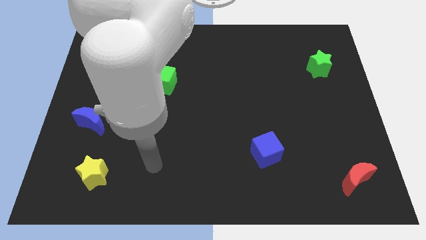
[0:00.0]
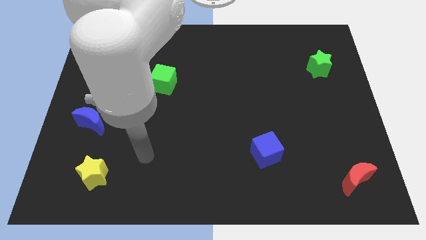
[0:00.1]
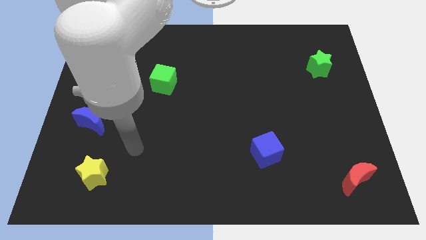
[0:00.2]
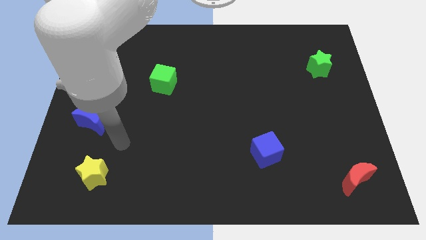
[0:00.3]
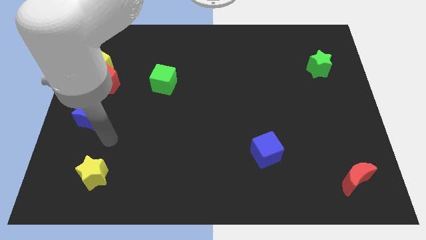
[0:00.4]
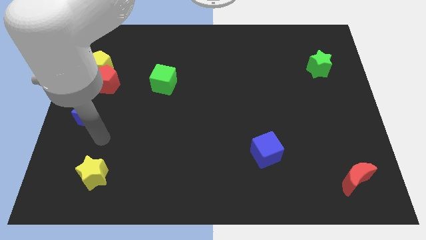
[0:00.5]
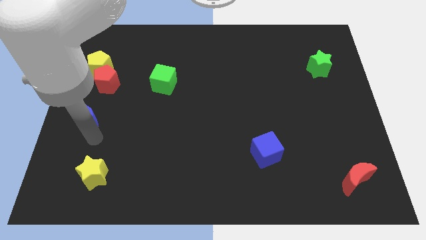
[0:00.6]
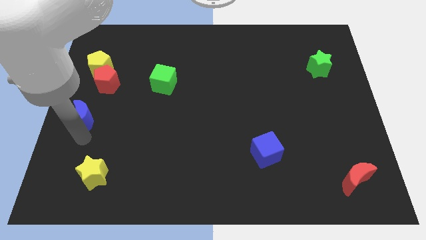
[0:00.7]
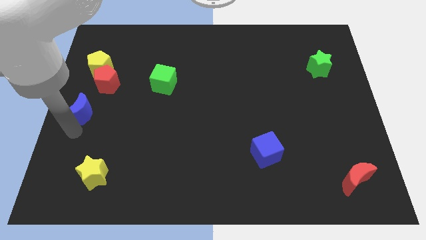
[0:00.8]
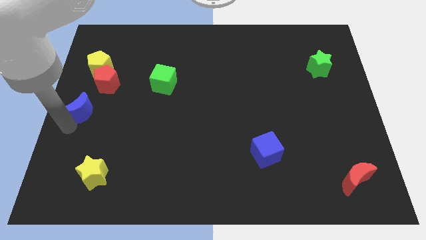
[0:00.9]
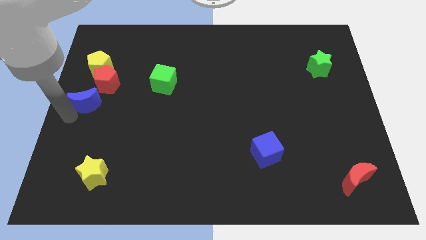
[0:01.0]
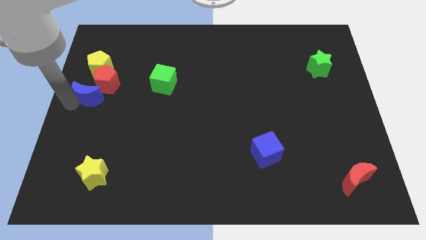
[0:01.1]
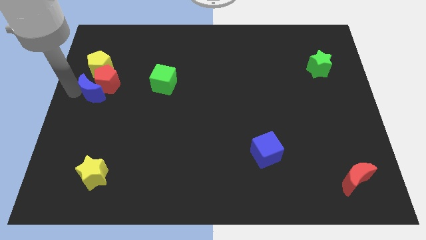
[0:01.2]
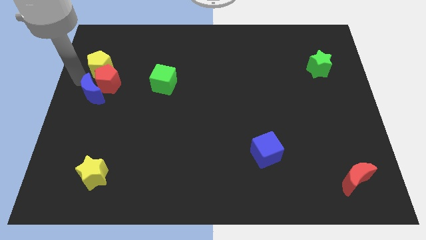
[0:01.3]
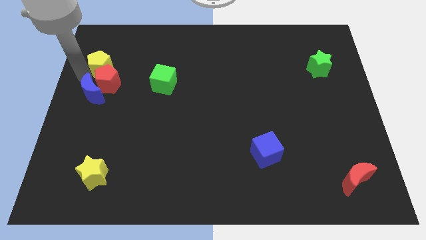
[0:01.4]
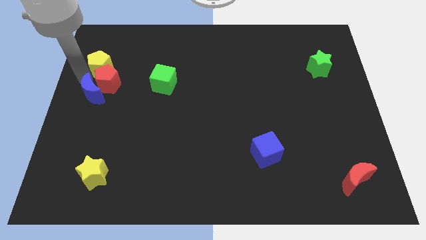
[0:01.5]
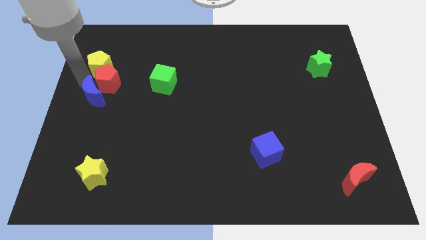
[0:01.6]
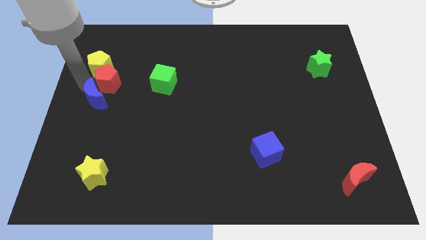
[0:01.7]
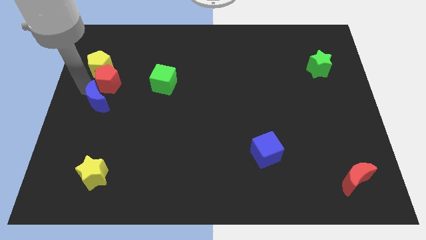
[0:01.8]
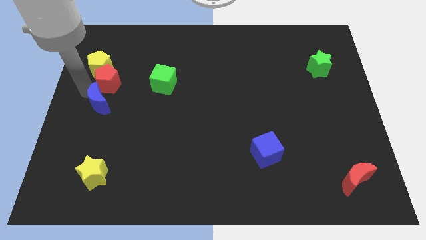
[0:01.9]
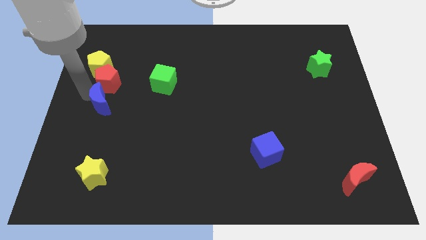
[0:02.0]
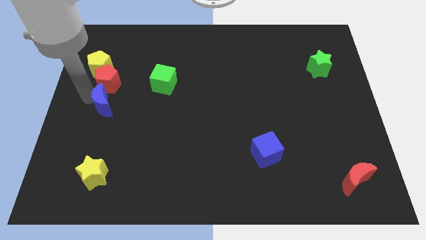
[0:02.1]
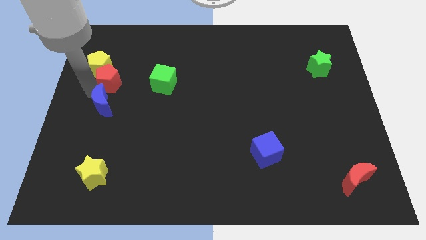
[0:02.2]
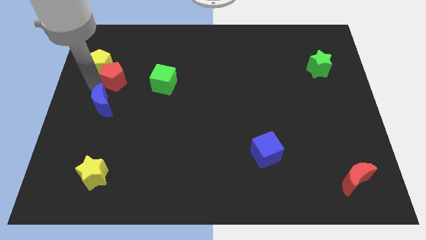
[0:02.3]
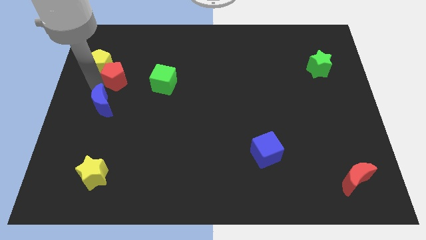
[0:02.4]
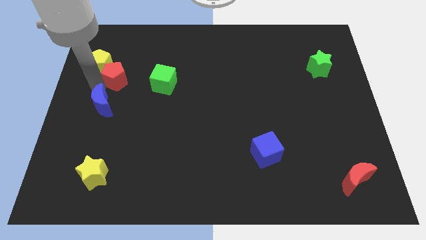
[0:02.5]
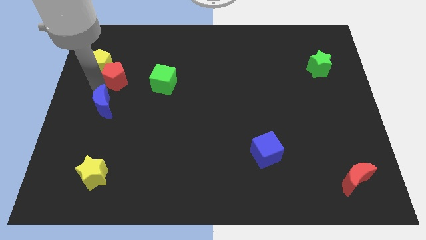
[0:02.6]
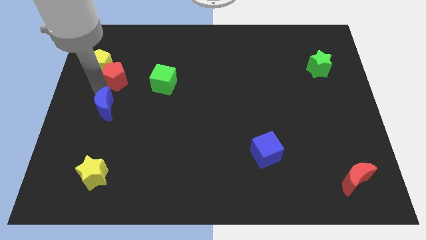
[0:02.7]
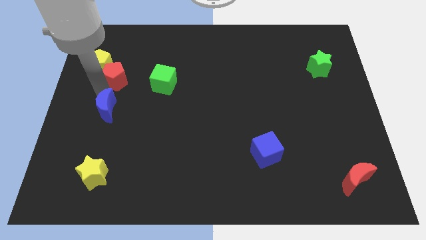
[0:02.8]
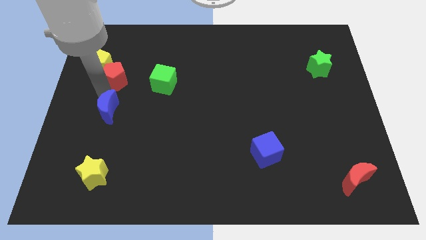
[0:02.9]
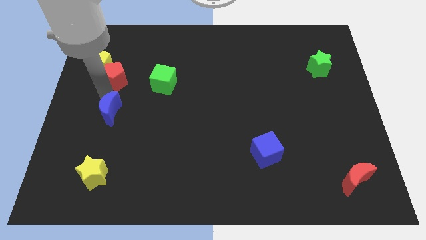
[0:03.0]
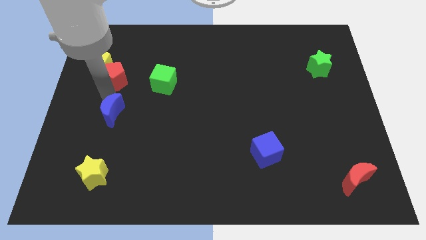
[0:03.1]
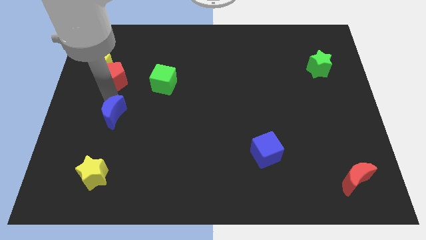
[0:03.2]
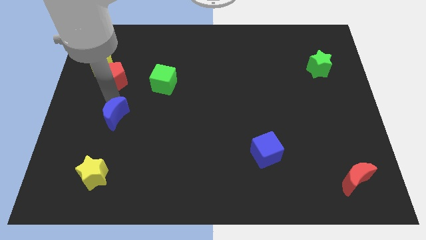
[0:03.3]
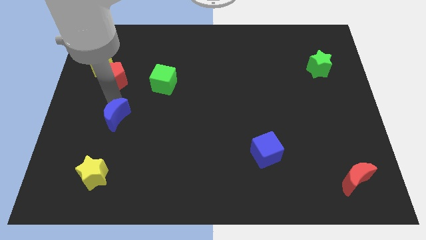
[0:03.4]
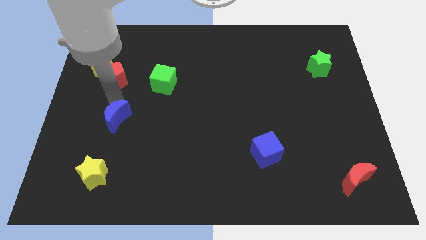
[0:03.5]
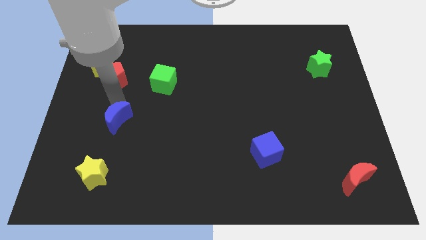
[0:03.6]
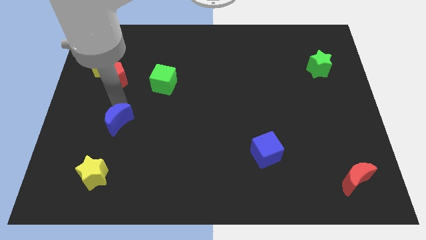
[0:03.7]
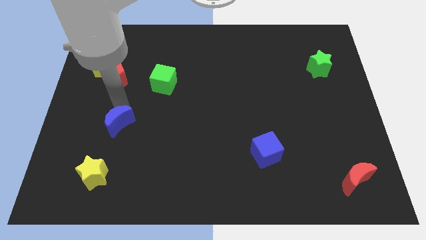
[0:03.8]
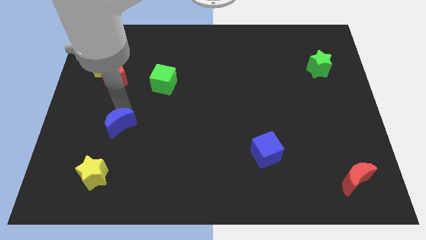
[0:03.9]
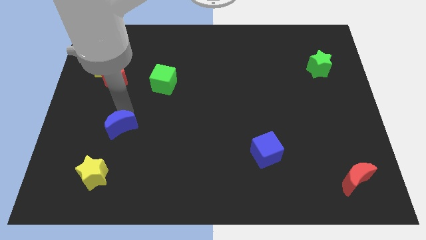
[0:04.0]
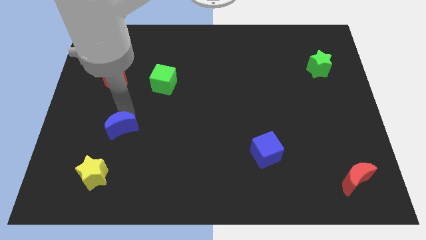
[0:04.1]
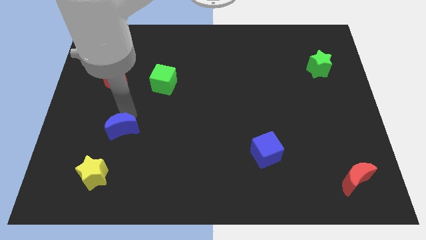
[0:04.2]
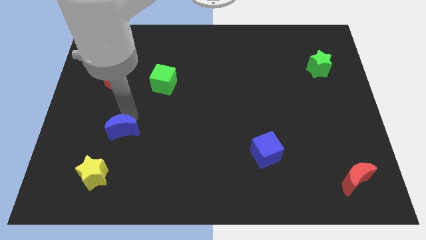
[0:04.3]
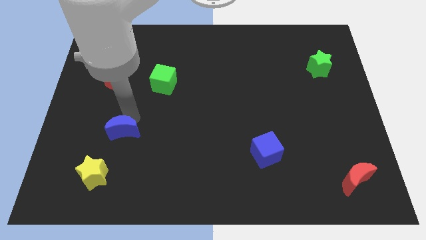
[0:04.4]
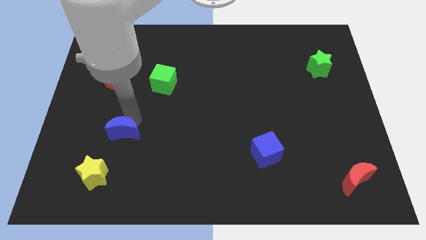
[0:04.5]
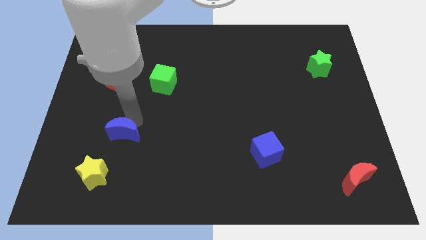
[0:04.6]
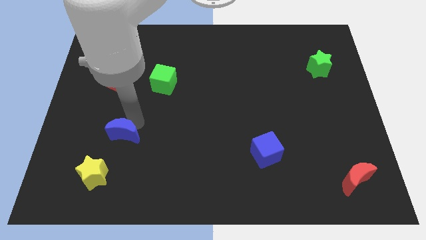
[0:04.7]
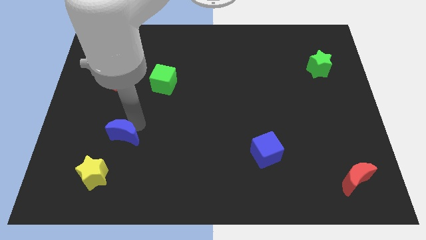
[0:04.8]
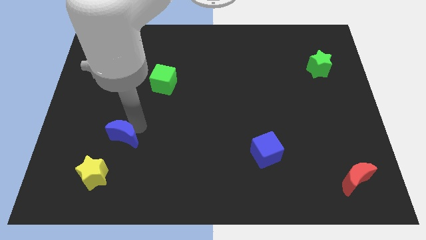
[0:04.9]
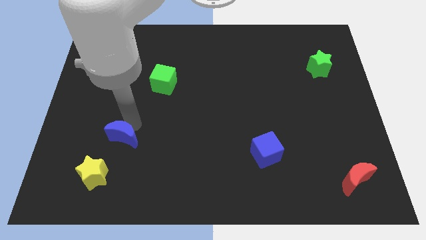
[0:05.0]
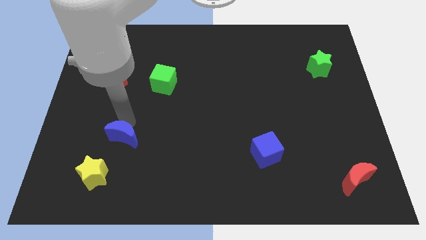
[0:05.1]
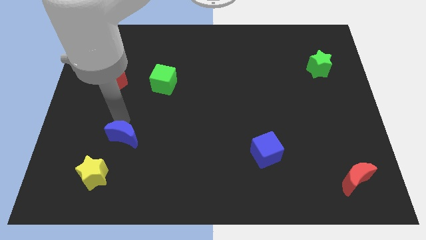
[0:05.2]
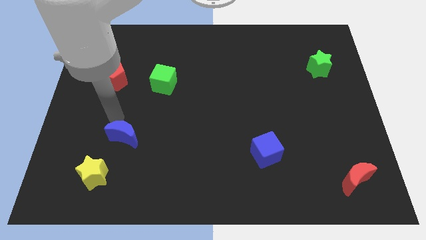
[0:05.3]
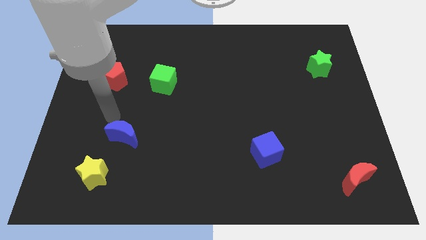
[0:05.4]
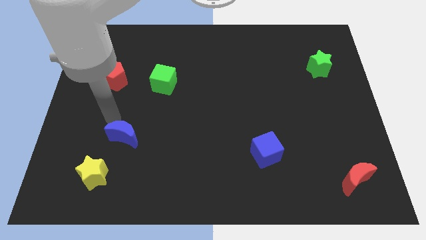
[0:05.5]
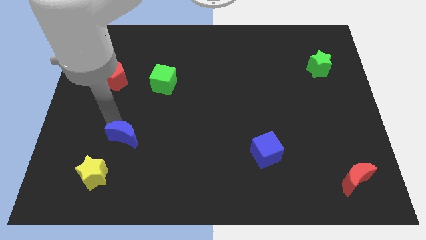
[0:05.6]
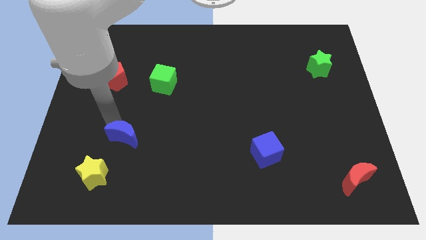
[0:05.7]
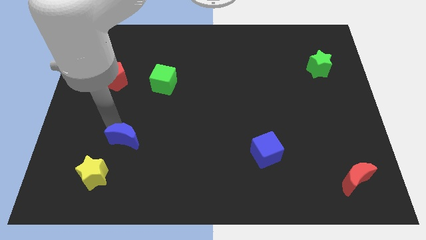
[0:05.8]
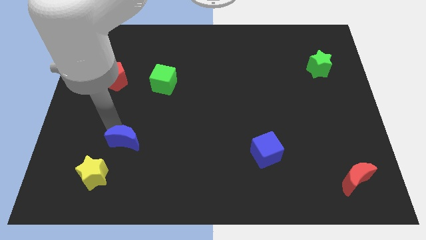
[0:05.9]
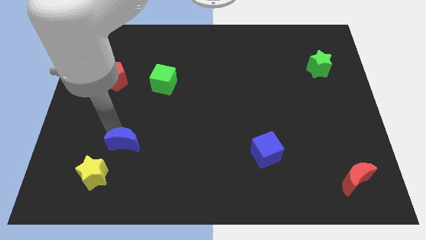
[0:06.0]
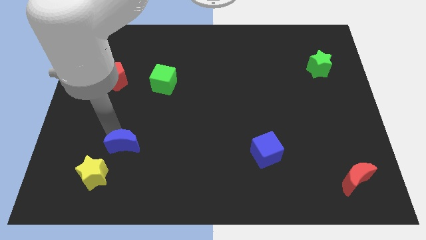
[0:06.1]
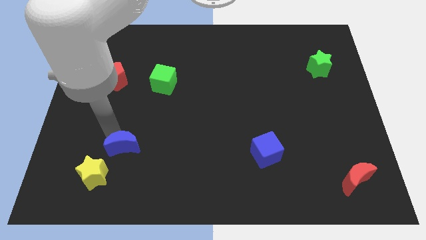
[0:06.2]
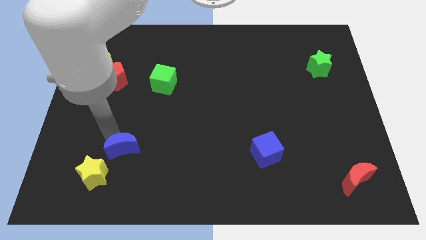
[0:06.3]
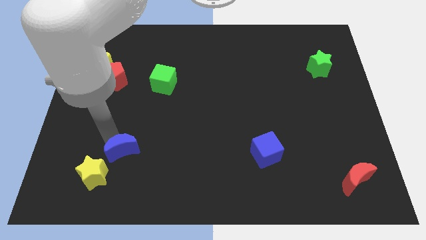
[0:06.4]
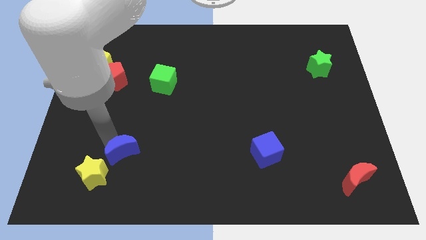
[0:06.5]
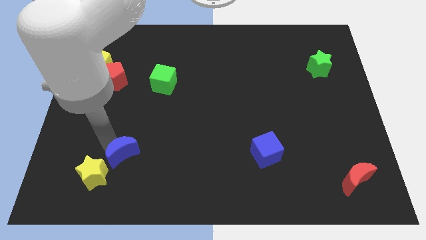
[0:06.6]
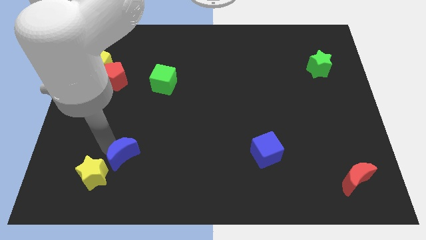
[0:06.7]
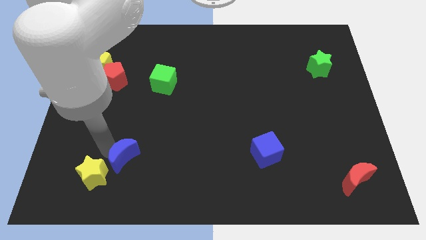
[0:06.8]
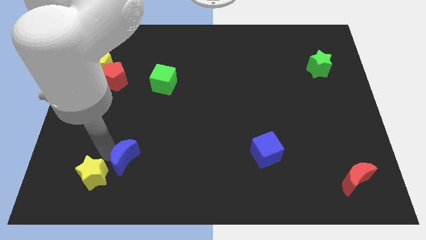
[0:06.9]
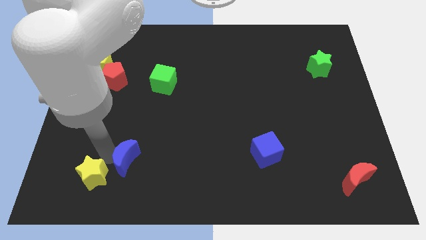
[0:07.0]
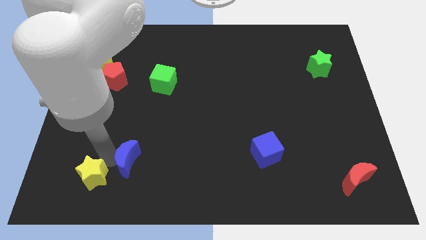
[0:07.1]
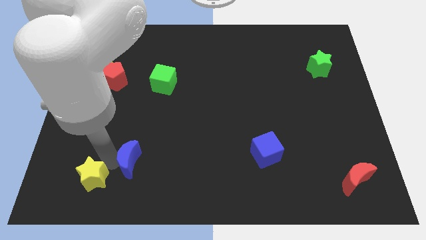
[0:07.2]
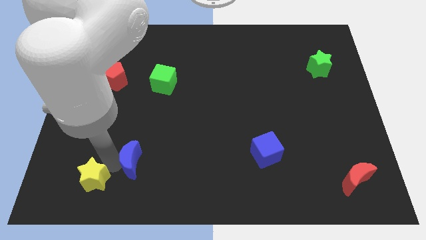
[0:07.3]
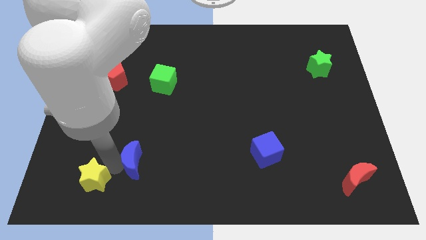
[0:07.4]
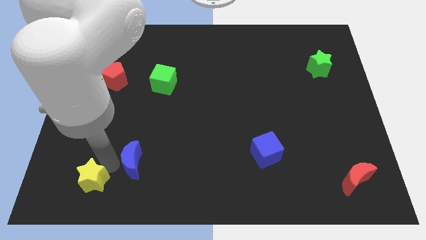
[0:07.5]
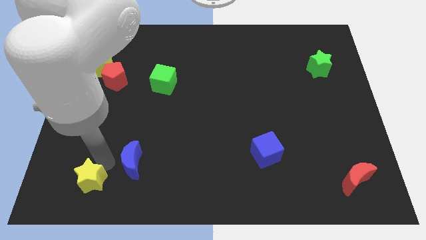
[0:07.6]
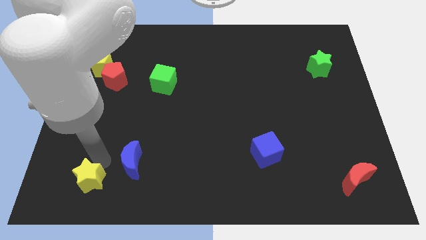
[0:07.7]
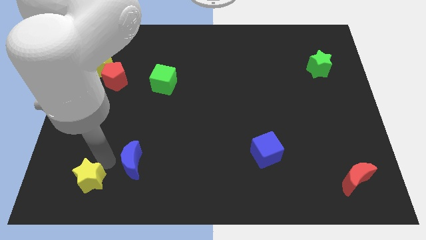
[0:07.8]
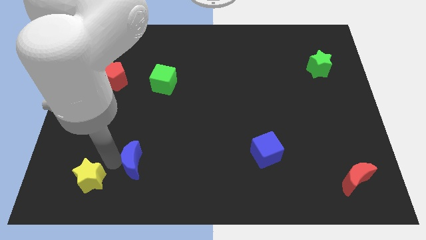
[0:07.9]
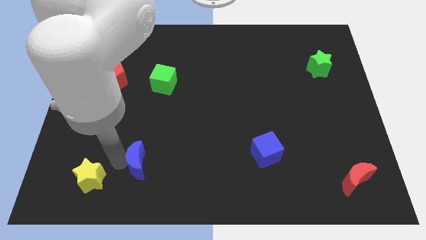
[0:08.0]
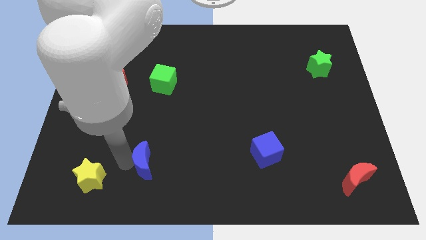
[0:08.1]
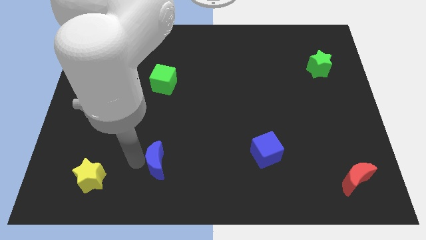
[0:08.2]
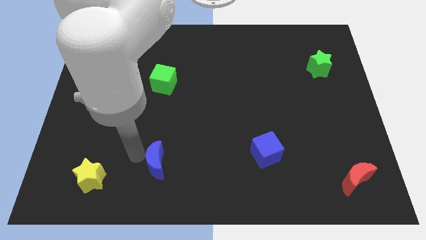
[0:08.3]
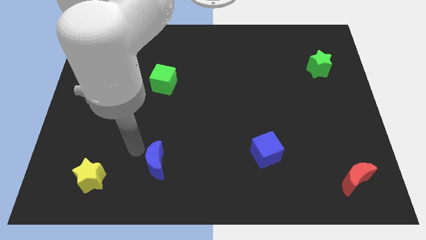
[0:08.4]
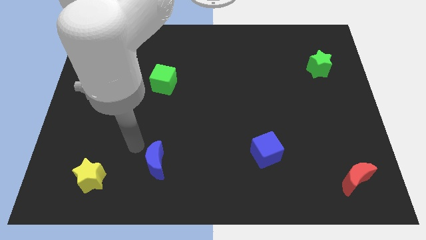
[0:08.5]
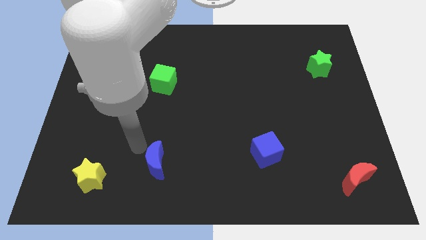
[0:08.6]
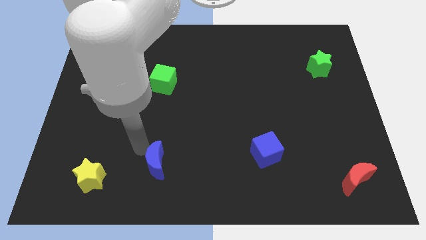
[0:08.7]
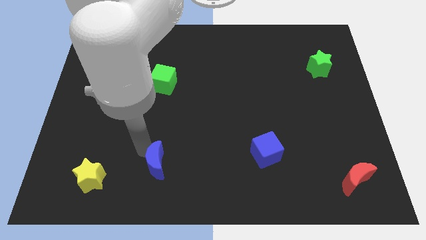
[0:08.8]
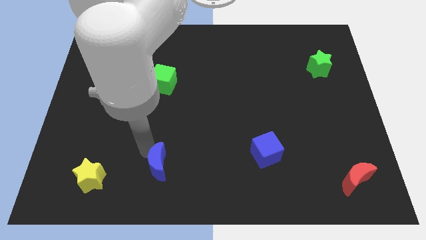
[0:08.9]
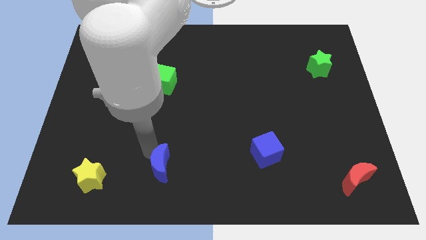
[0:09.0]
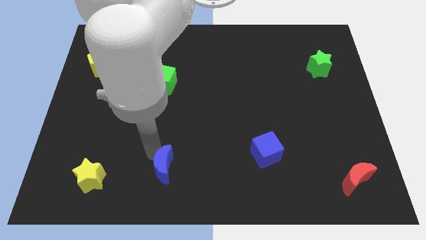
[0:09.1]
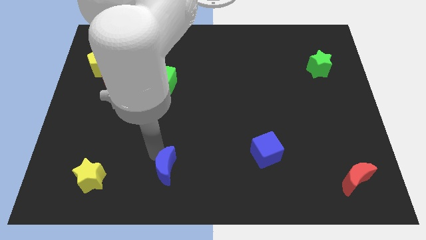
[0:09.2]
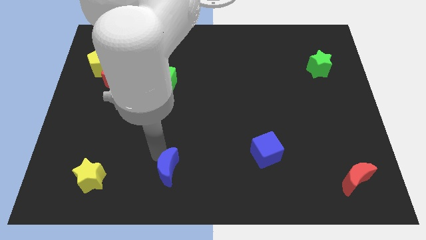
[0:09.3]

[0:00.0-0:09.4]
push the blue moon to the bottom side
